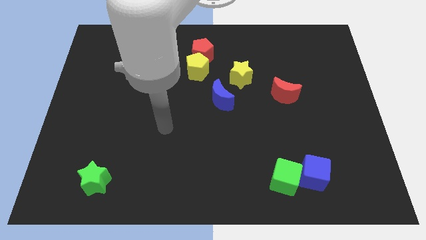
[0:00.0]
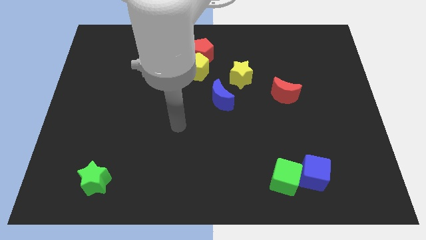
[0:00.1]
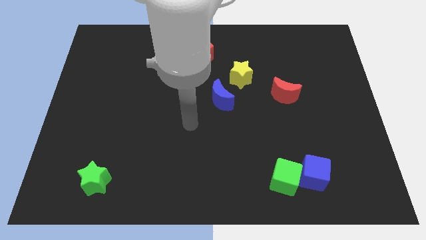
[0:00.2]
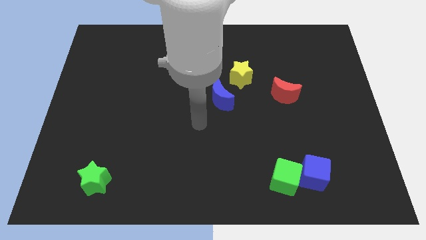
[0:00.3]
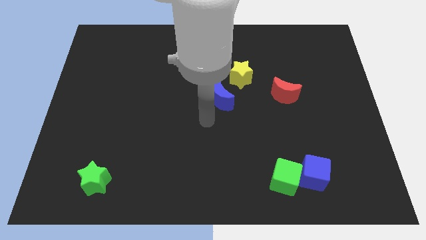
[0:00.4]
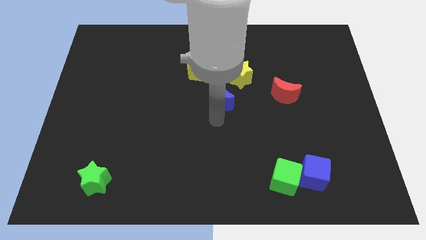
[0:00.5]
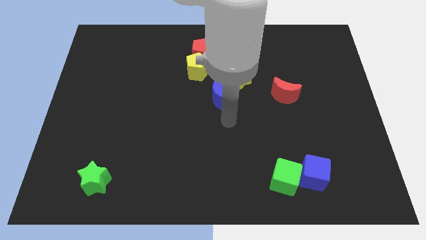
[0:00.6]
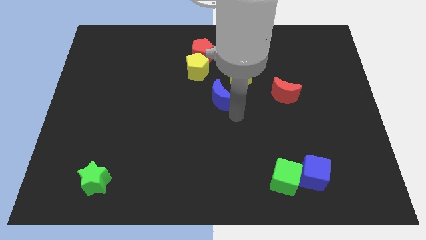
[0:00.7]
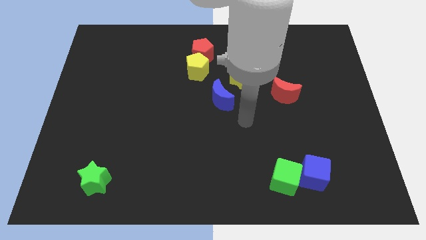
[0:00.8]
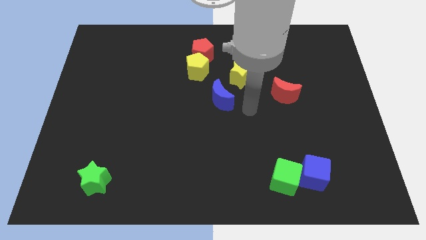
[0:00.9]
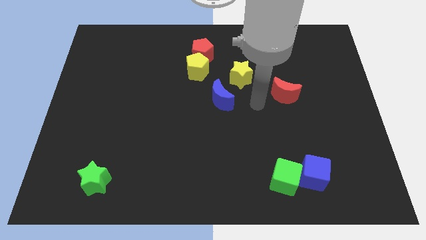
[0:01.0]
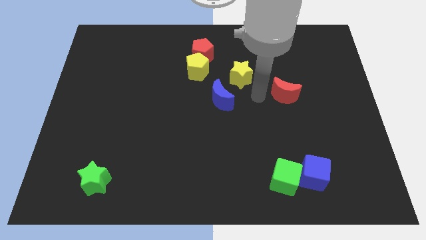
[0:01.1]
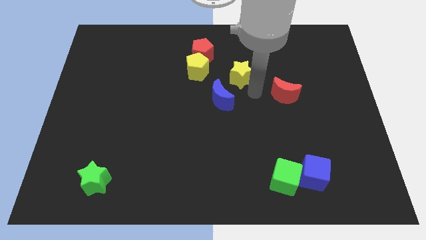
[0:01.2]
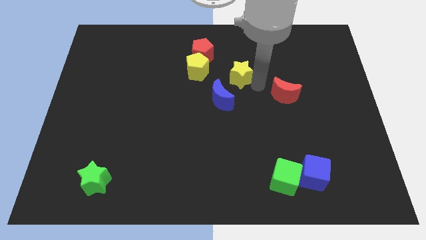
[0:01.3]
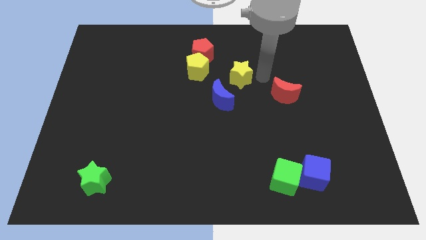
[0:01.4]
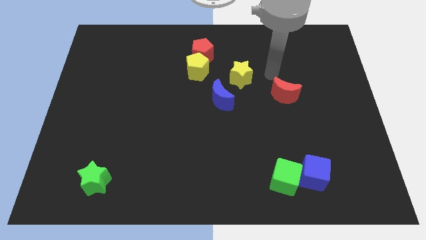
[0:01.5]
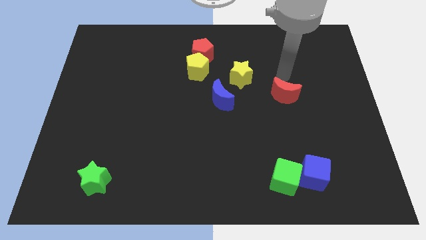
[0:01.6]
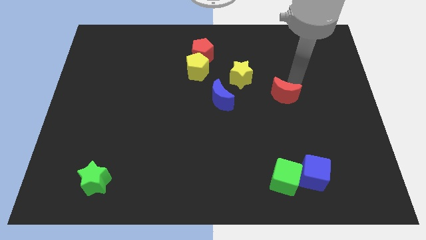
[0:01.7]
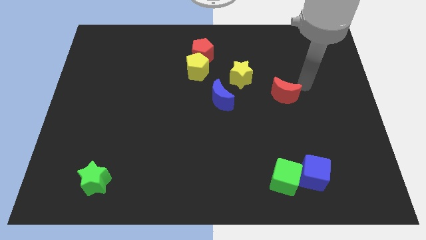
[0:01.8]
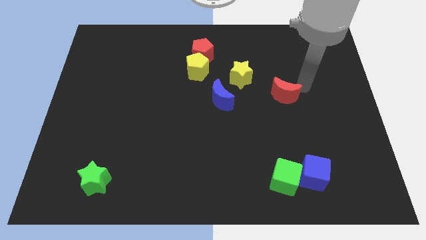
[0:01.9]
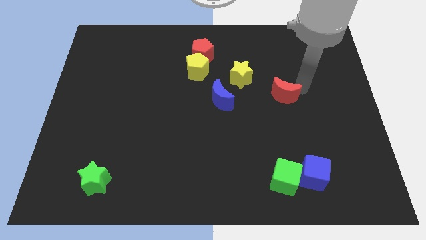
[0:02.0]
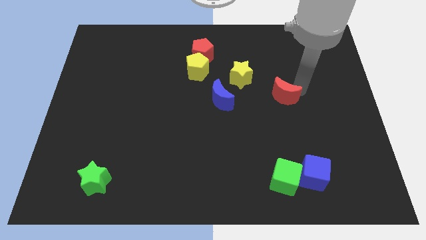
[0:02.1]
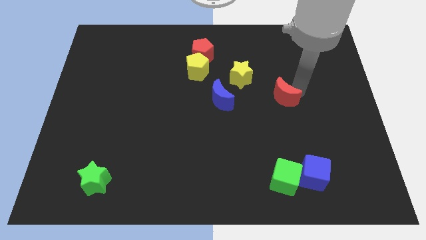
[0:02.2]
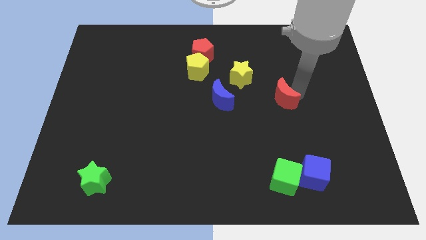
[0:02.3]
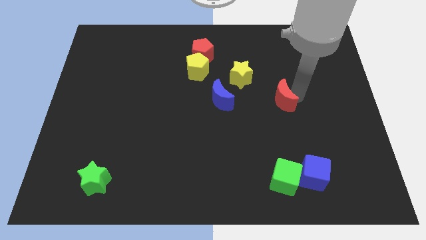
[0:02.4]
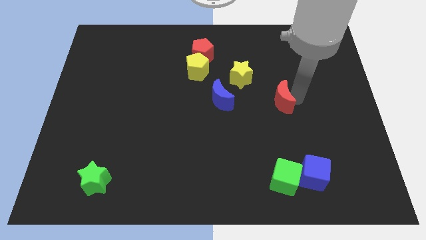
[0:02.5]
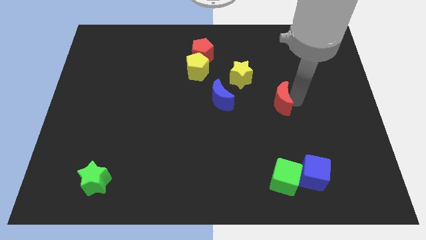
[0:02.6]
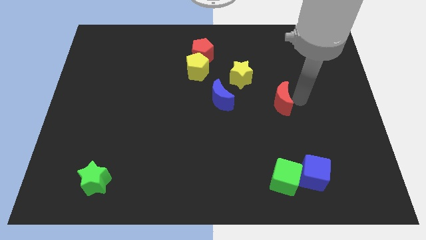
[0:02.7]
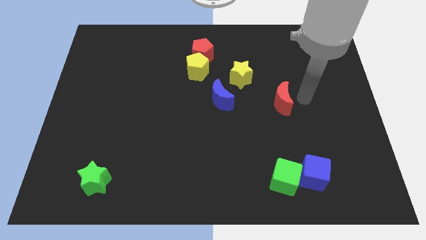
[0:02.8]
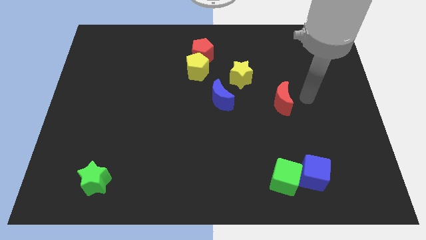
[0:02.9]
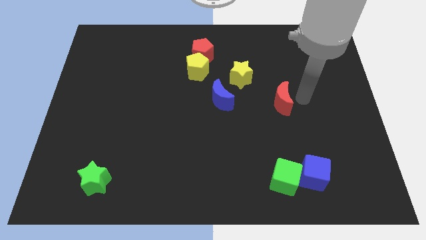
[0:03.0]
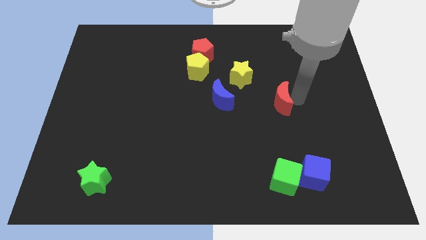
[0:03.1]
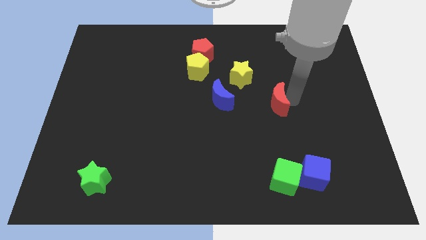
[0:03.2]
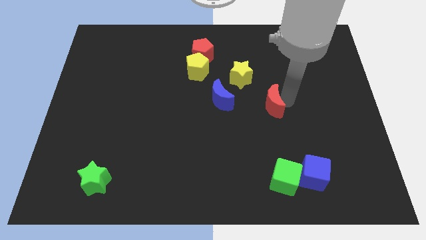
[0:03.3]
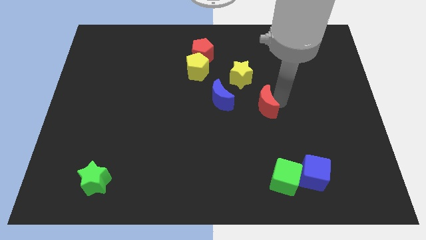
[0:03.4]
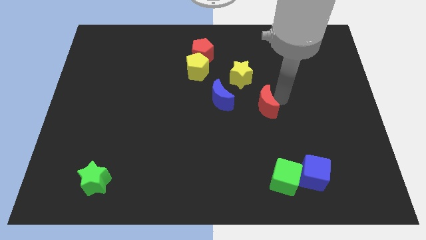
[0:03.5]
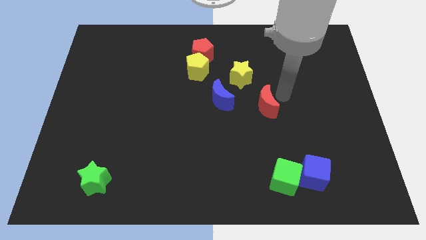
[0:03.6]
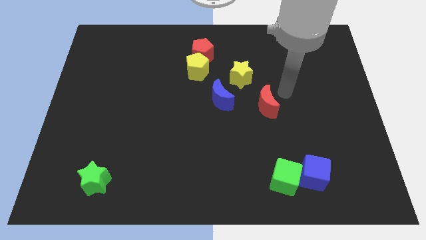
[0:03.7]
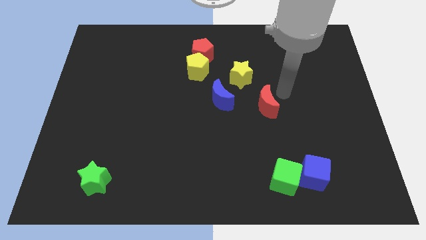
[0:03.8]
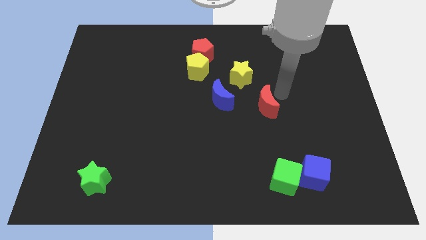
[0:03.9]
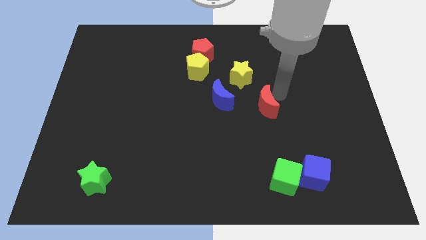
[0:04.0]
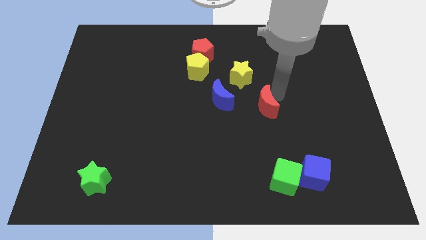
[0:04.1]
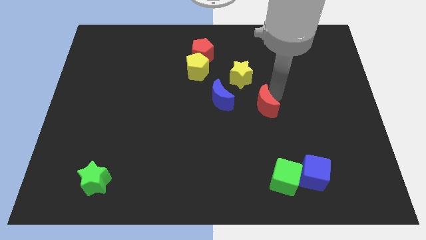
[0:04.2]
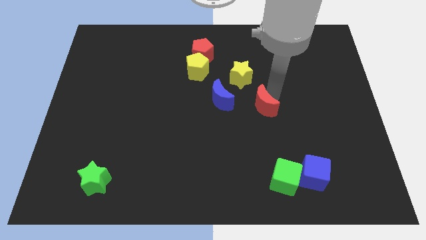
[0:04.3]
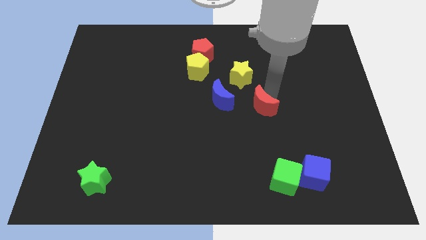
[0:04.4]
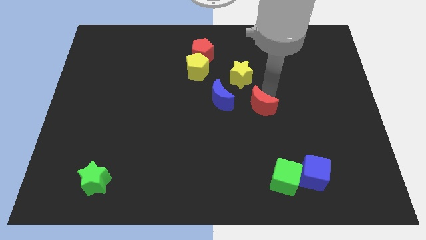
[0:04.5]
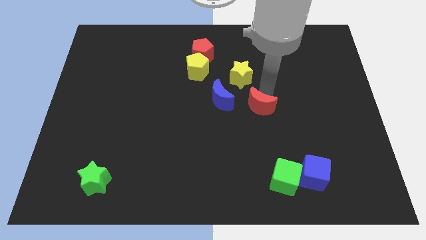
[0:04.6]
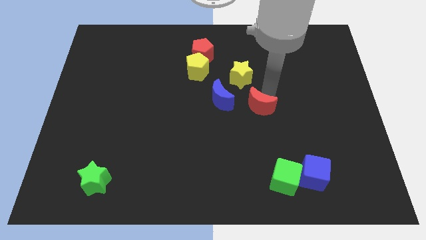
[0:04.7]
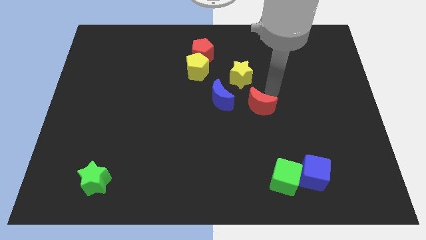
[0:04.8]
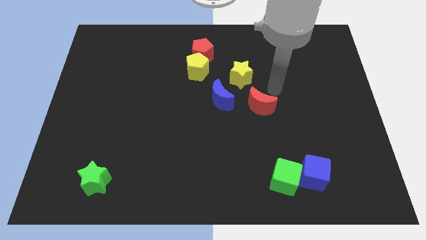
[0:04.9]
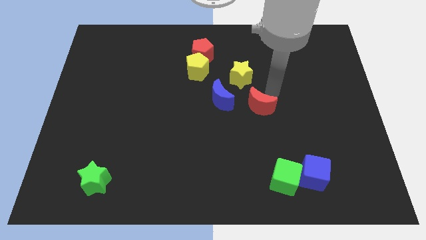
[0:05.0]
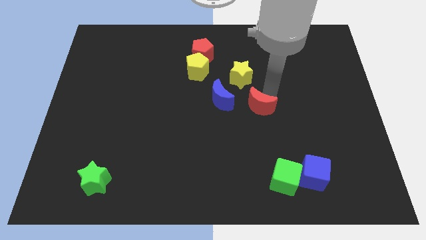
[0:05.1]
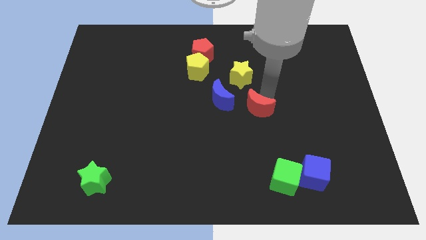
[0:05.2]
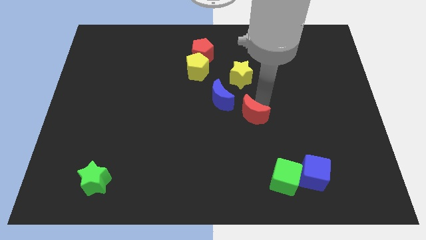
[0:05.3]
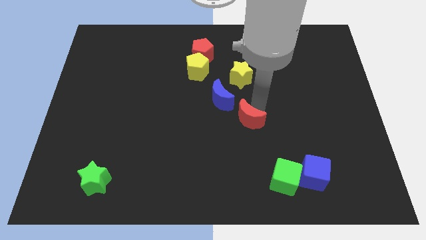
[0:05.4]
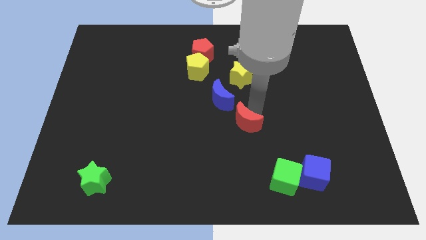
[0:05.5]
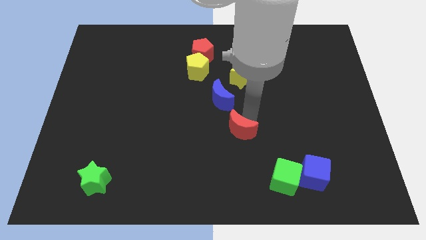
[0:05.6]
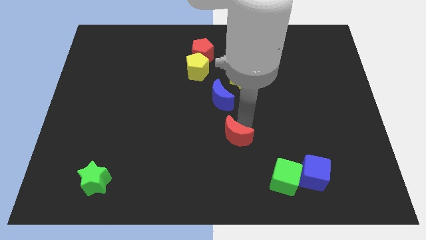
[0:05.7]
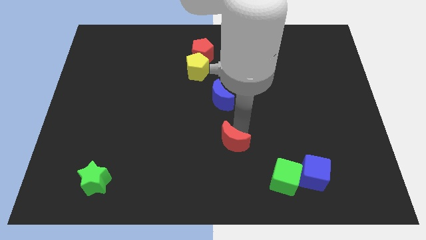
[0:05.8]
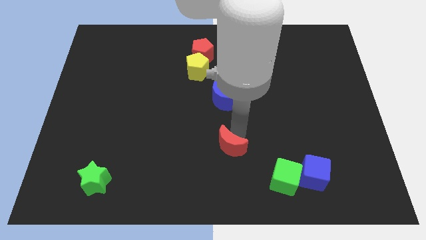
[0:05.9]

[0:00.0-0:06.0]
move the red moon down and left

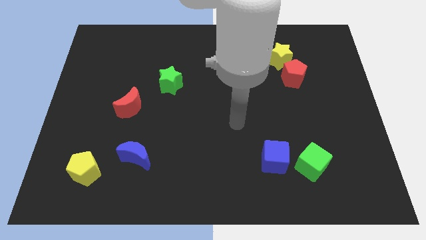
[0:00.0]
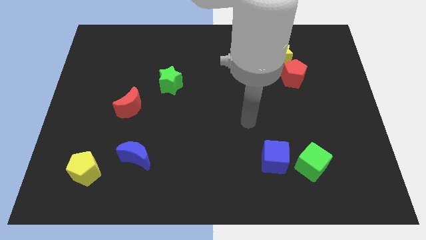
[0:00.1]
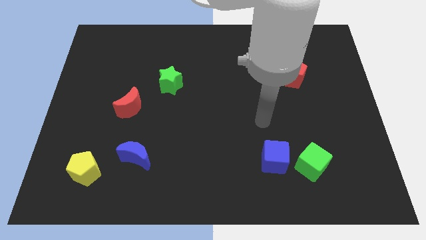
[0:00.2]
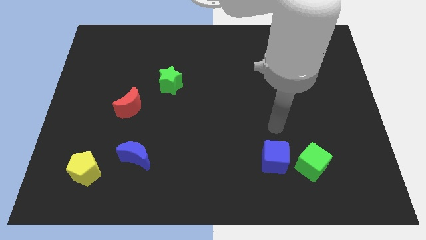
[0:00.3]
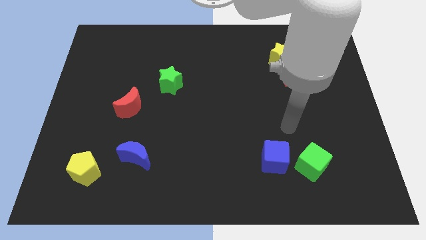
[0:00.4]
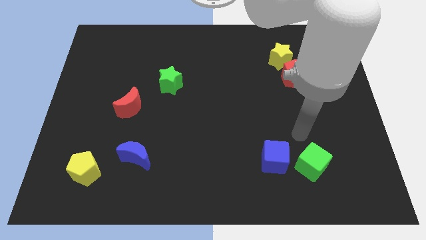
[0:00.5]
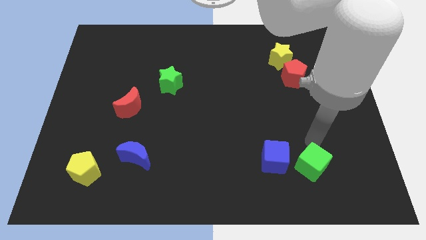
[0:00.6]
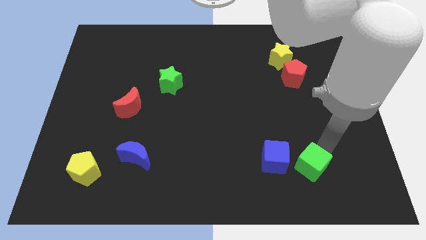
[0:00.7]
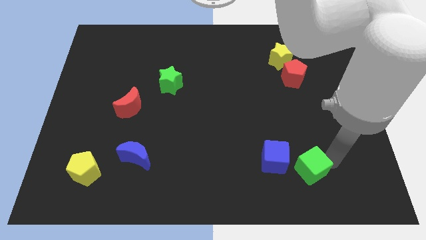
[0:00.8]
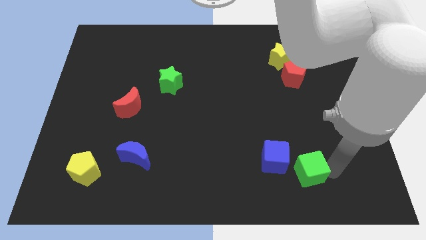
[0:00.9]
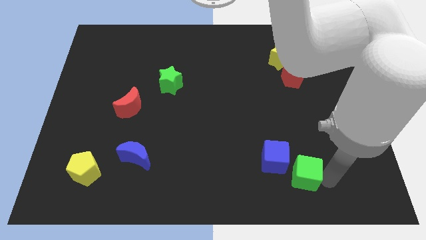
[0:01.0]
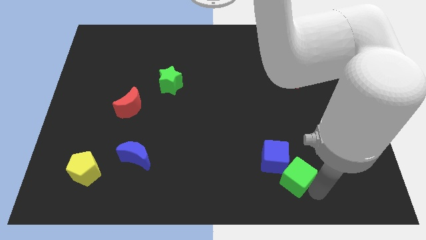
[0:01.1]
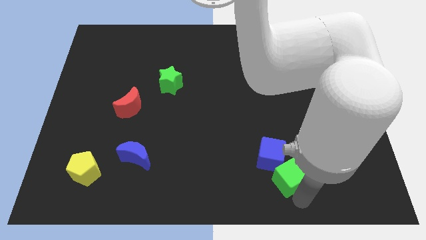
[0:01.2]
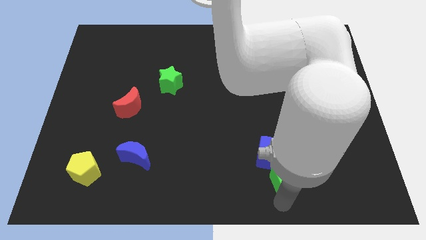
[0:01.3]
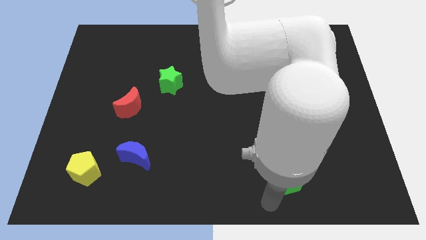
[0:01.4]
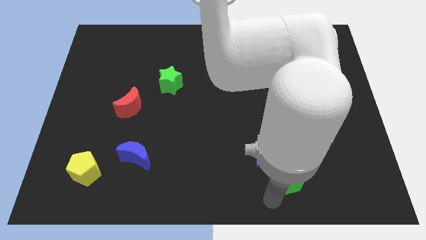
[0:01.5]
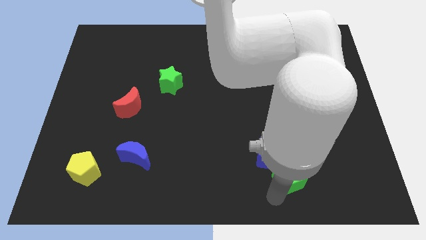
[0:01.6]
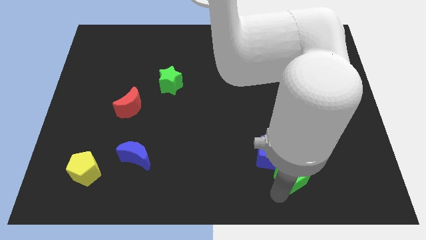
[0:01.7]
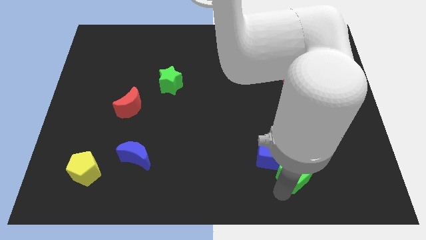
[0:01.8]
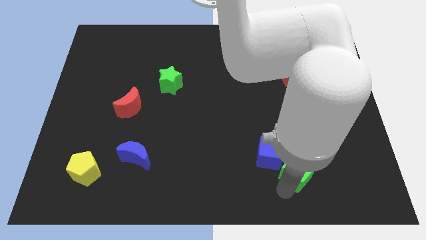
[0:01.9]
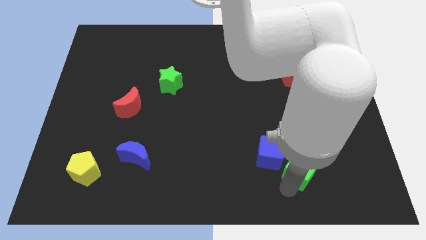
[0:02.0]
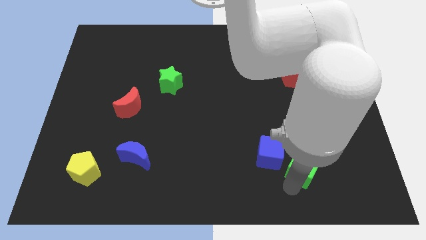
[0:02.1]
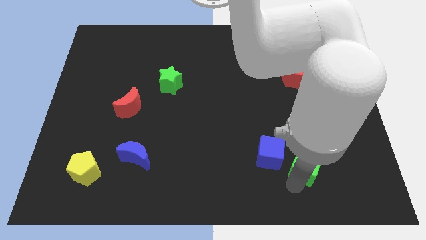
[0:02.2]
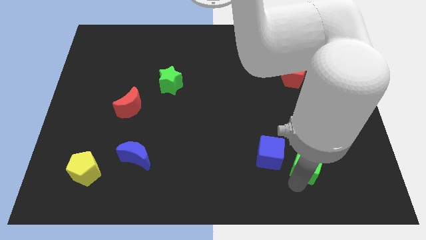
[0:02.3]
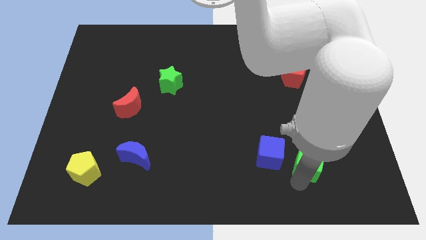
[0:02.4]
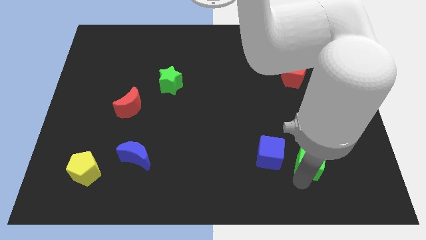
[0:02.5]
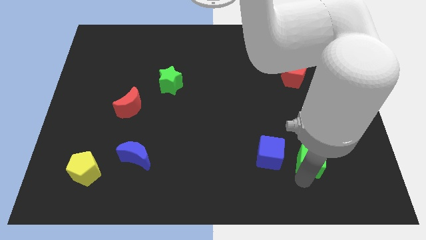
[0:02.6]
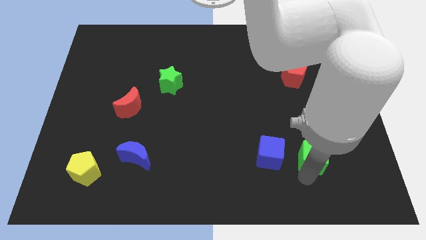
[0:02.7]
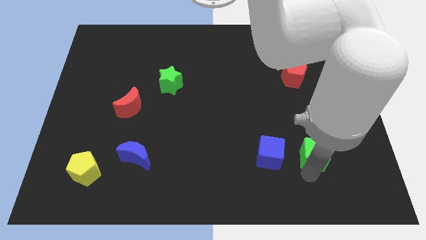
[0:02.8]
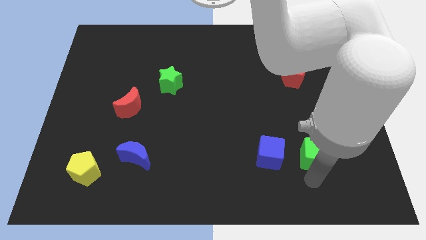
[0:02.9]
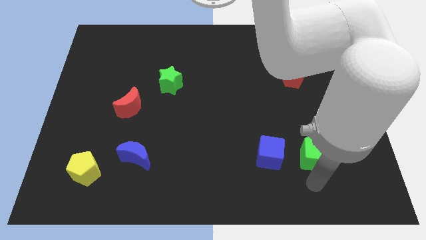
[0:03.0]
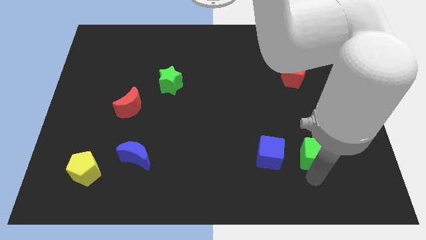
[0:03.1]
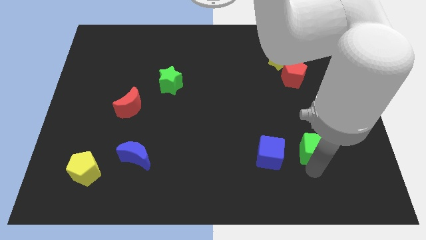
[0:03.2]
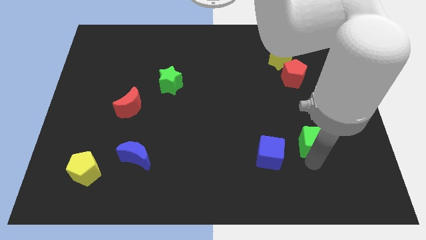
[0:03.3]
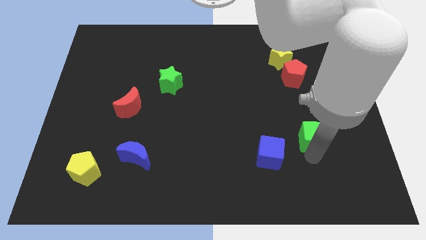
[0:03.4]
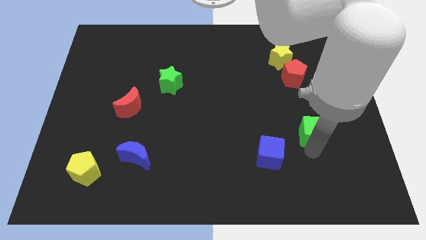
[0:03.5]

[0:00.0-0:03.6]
slide the green cube up somewhat
